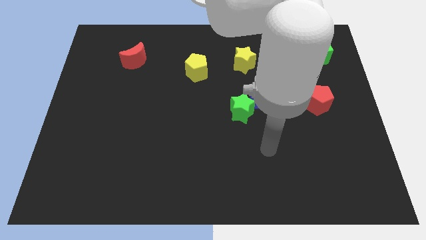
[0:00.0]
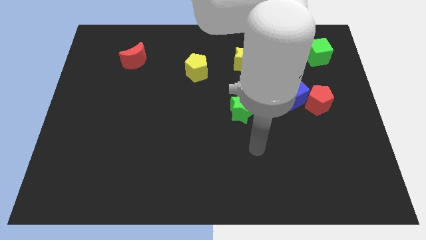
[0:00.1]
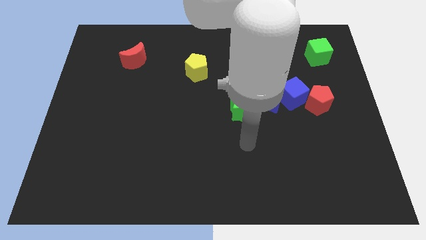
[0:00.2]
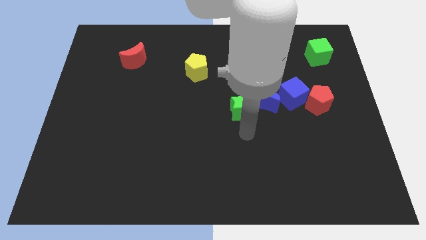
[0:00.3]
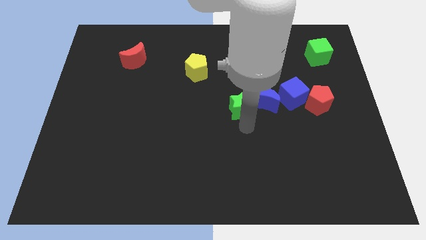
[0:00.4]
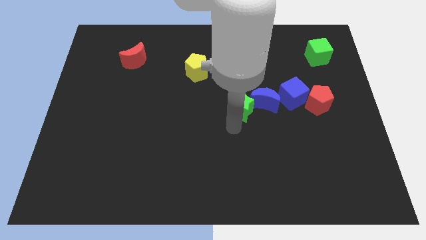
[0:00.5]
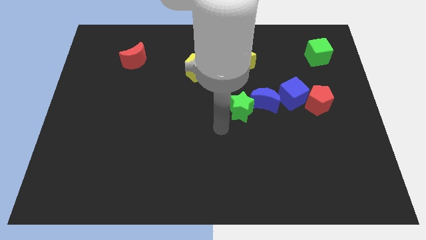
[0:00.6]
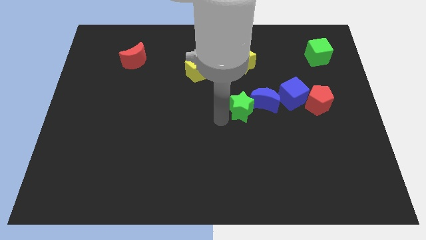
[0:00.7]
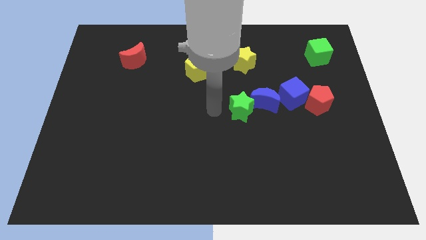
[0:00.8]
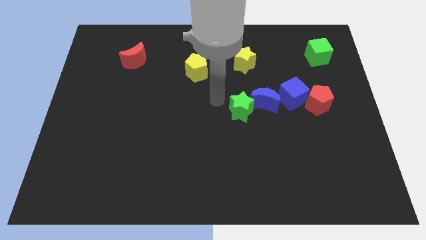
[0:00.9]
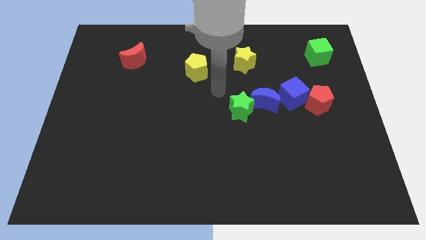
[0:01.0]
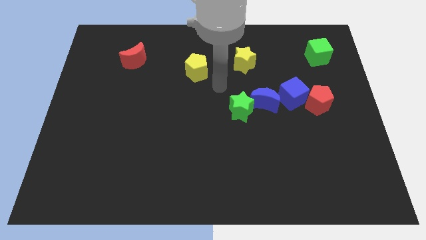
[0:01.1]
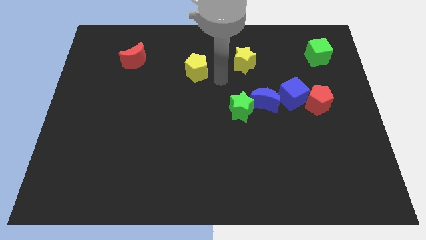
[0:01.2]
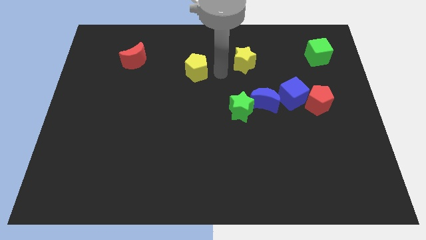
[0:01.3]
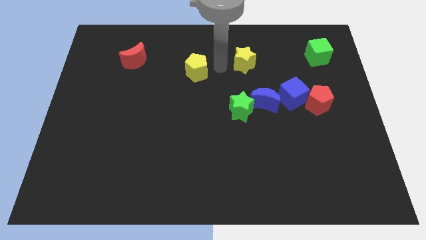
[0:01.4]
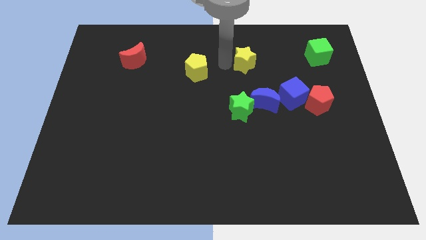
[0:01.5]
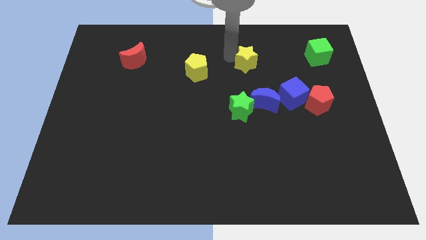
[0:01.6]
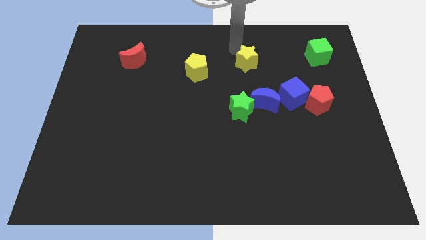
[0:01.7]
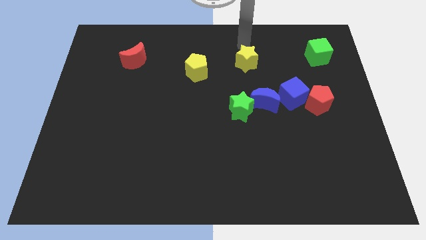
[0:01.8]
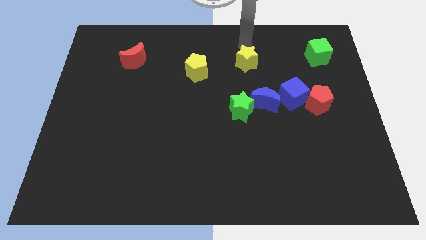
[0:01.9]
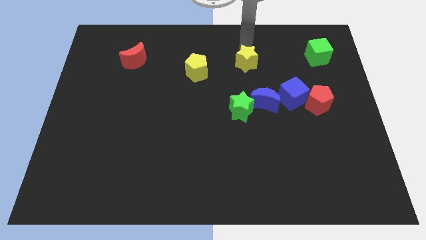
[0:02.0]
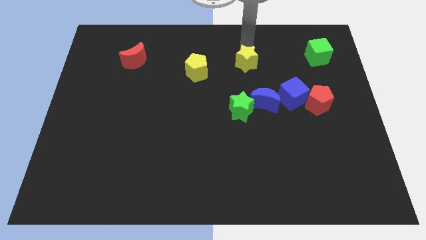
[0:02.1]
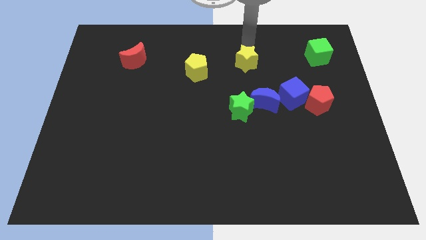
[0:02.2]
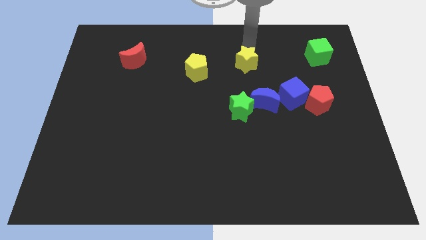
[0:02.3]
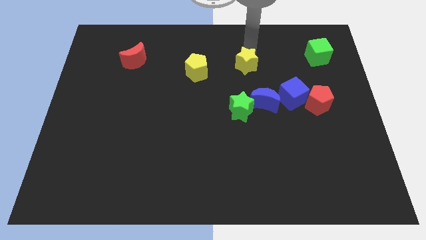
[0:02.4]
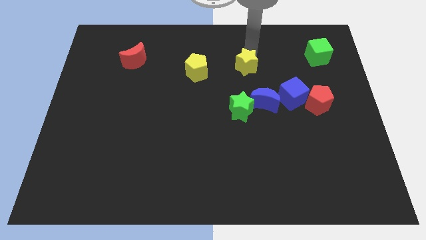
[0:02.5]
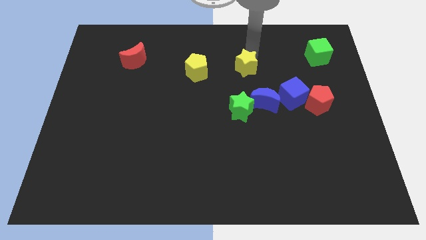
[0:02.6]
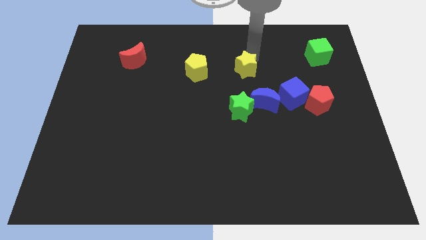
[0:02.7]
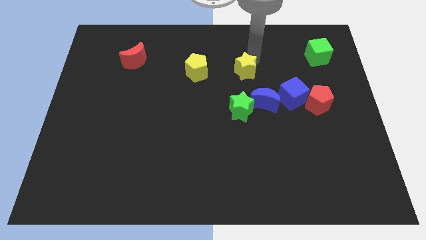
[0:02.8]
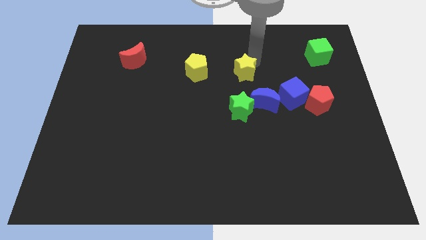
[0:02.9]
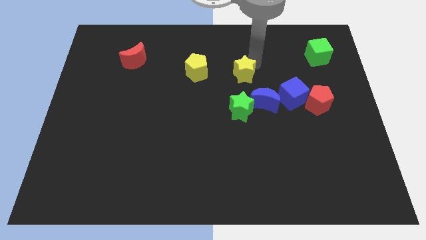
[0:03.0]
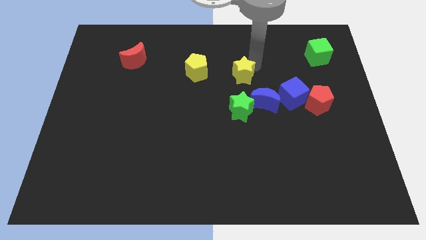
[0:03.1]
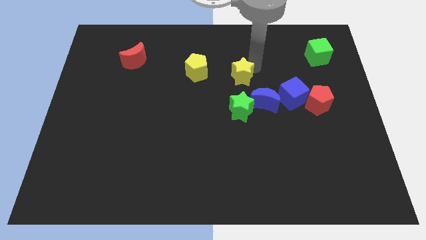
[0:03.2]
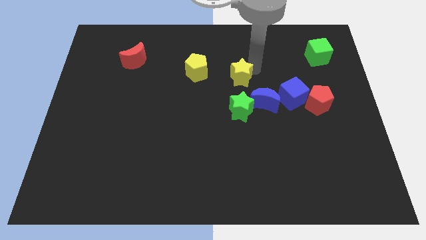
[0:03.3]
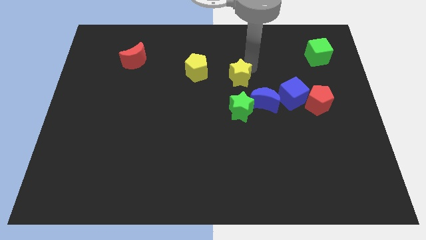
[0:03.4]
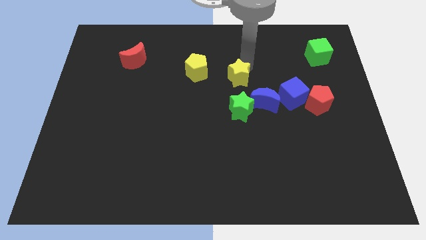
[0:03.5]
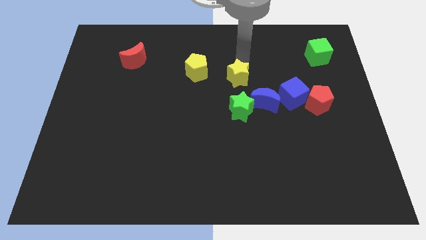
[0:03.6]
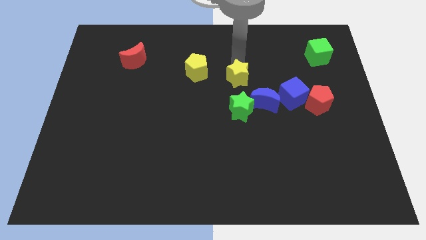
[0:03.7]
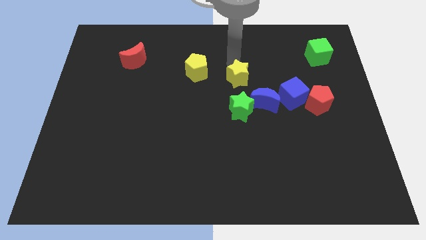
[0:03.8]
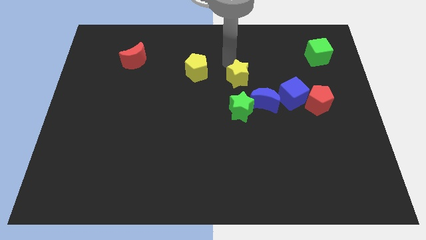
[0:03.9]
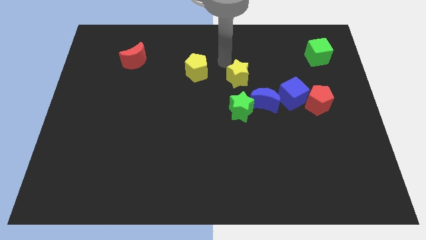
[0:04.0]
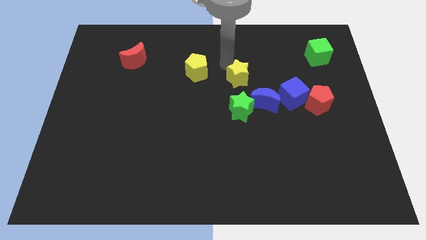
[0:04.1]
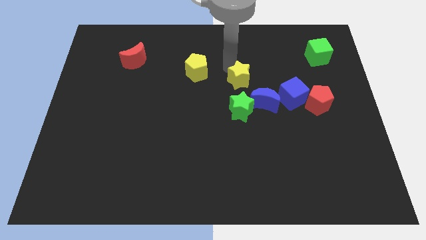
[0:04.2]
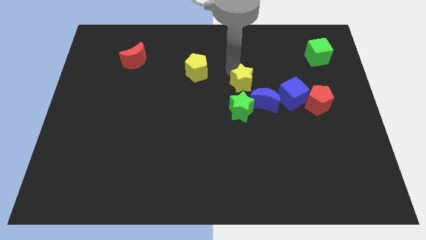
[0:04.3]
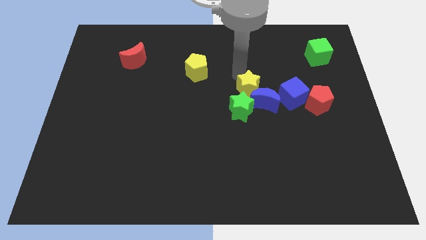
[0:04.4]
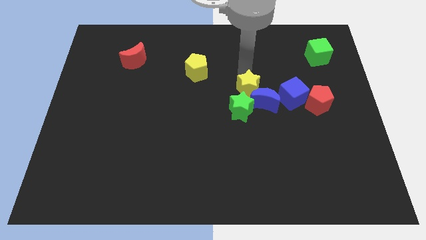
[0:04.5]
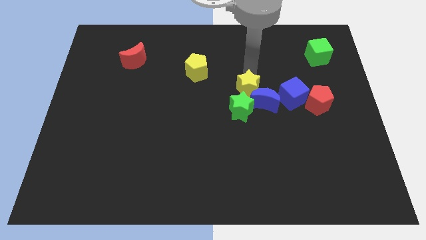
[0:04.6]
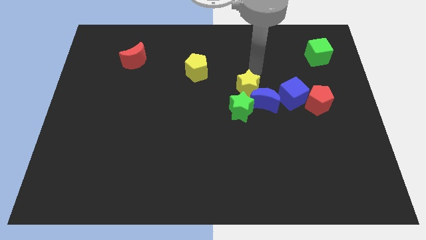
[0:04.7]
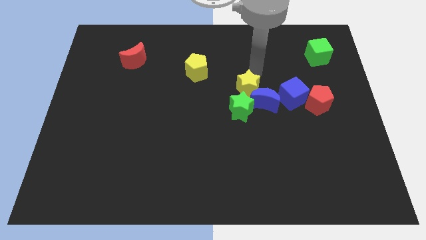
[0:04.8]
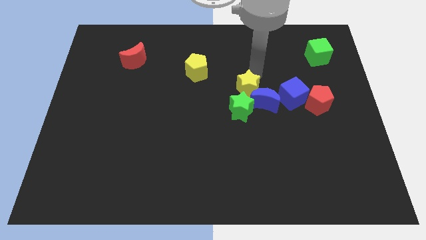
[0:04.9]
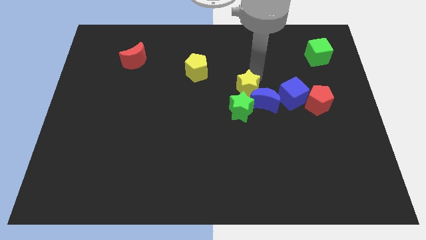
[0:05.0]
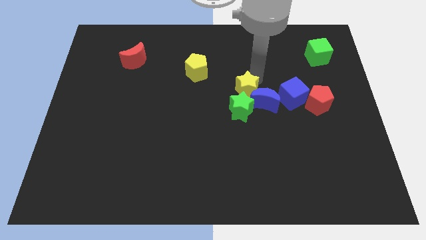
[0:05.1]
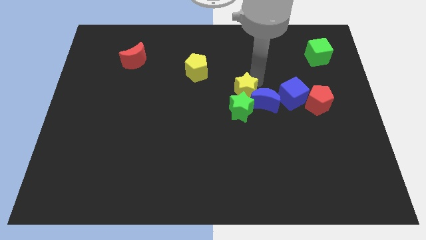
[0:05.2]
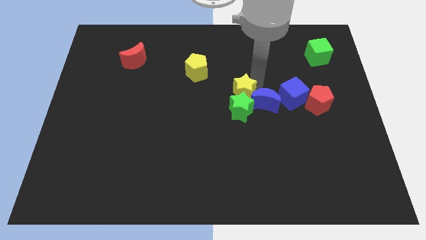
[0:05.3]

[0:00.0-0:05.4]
move the yellow star towards the green star

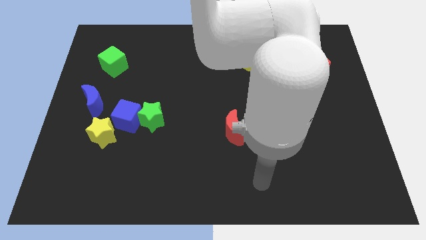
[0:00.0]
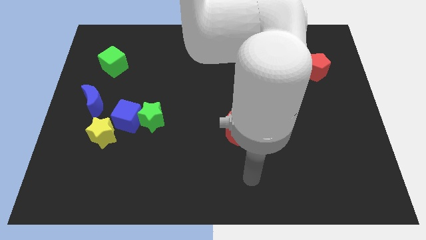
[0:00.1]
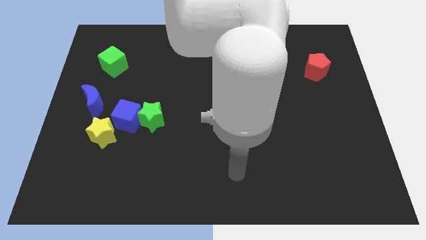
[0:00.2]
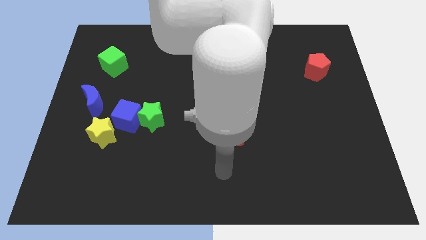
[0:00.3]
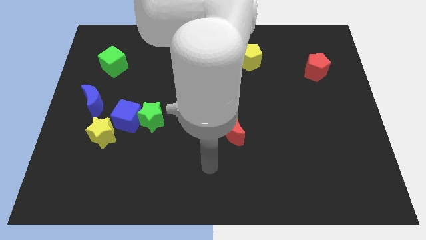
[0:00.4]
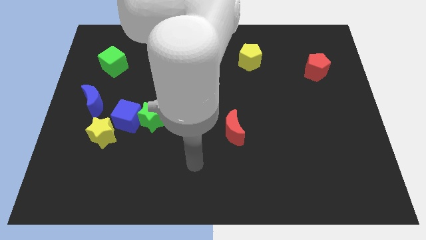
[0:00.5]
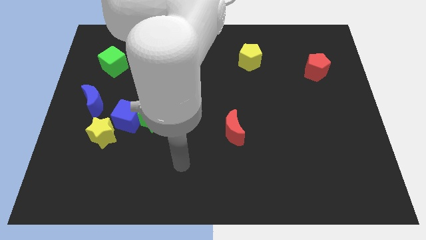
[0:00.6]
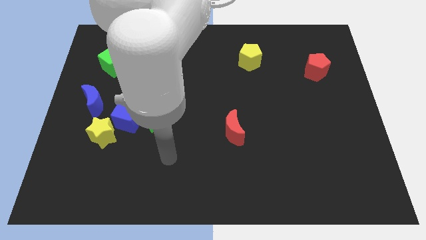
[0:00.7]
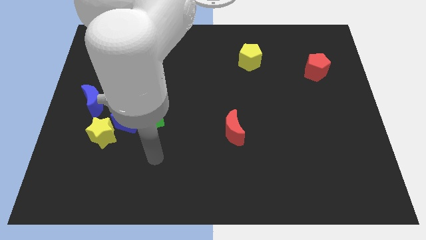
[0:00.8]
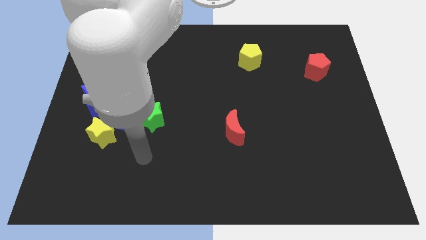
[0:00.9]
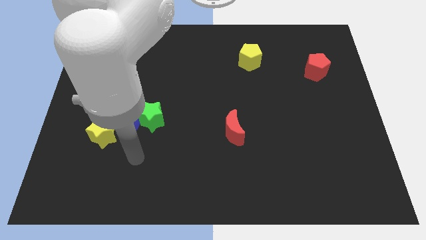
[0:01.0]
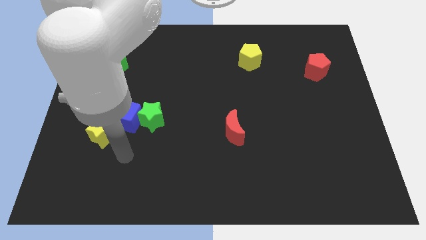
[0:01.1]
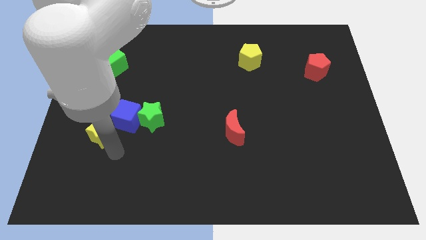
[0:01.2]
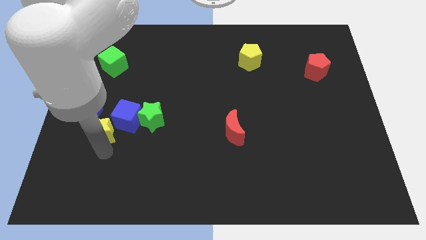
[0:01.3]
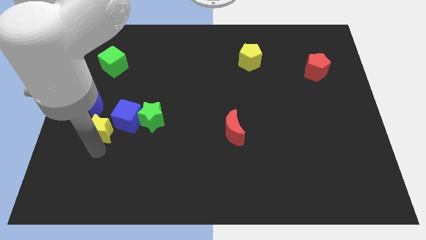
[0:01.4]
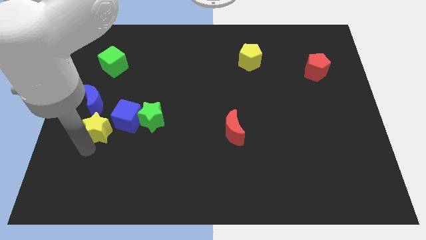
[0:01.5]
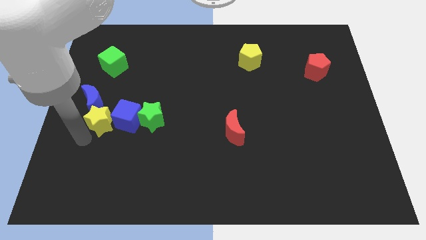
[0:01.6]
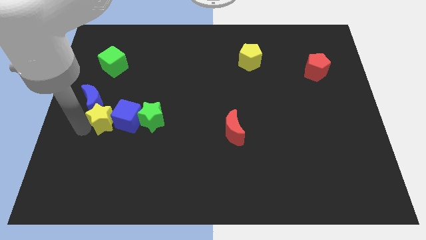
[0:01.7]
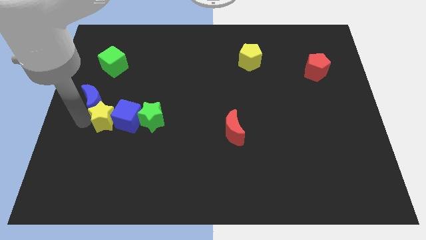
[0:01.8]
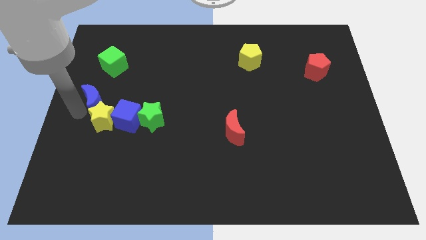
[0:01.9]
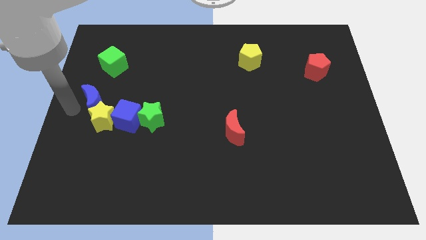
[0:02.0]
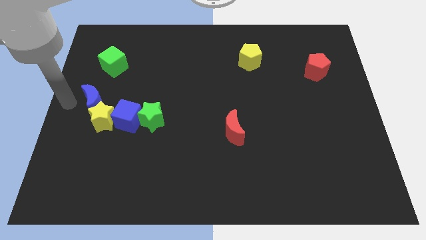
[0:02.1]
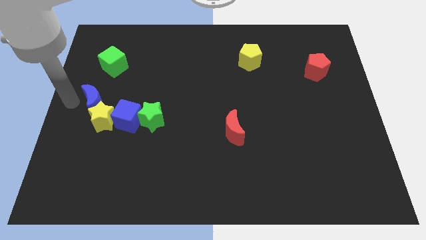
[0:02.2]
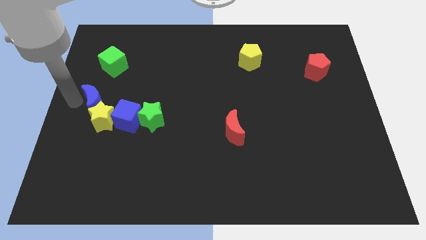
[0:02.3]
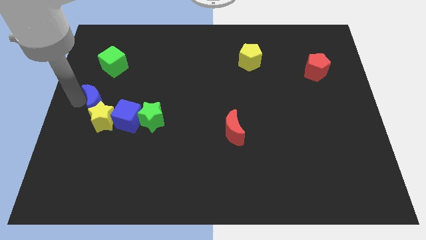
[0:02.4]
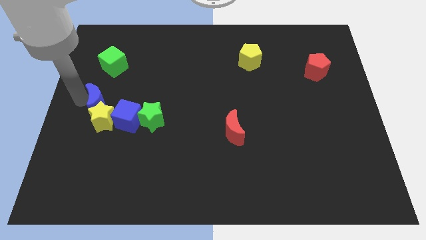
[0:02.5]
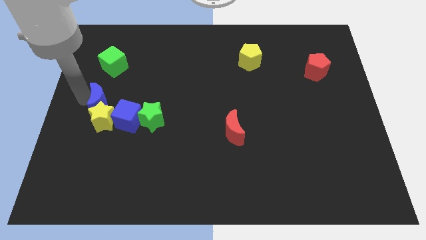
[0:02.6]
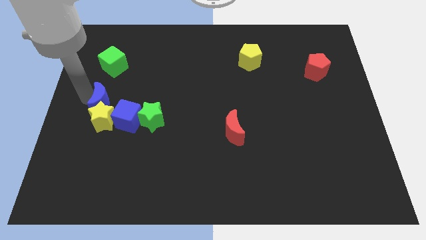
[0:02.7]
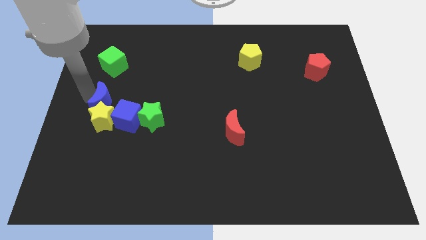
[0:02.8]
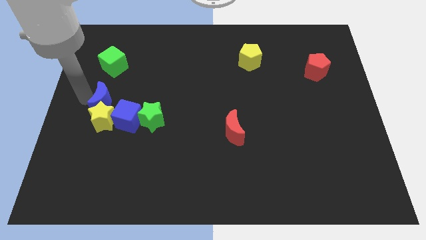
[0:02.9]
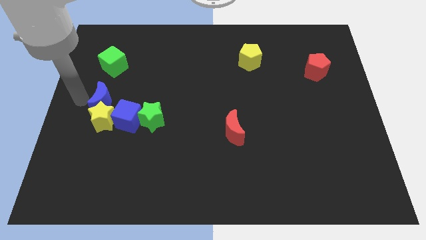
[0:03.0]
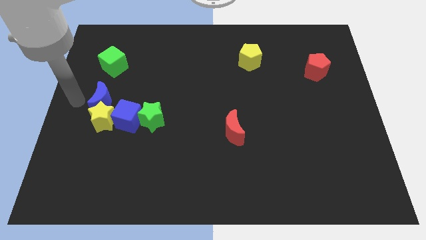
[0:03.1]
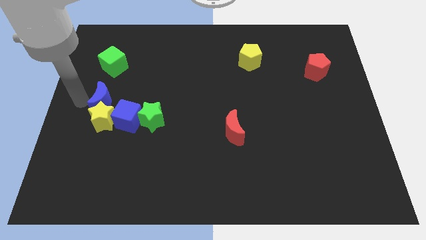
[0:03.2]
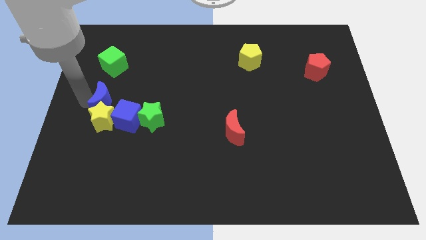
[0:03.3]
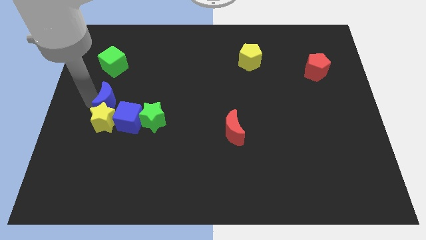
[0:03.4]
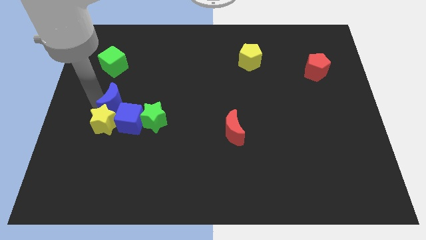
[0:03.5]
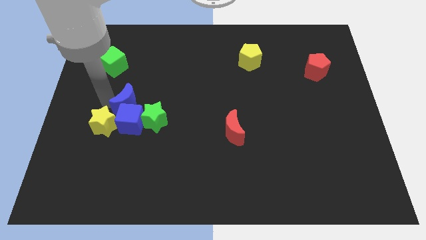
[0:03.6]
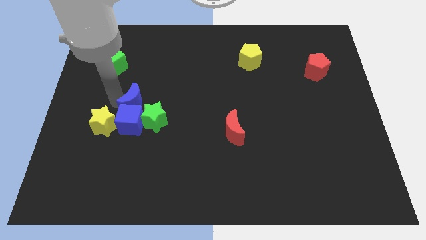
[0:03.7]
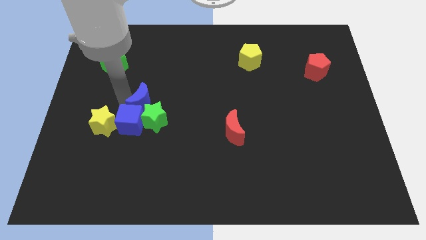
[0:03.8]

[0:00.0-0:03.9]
slide the blue moon to the green star
